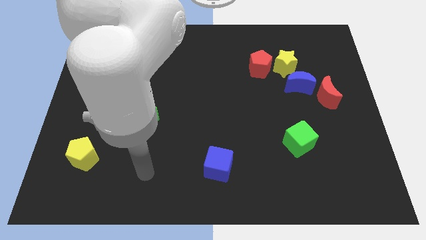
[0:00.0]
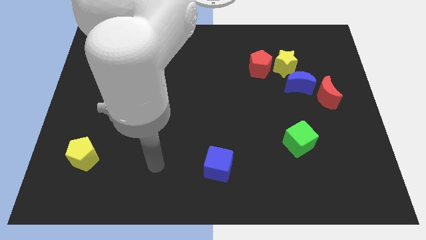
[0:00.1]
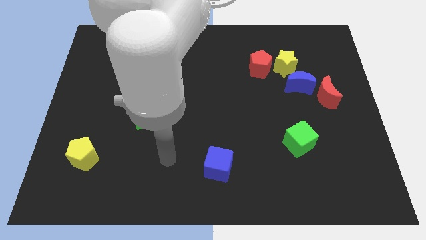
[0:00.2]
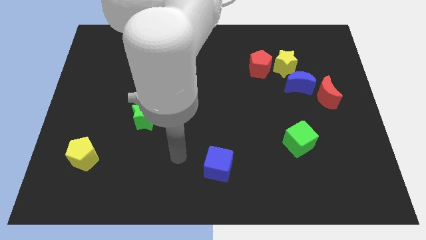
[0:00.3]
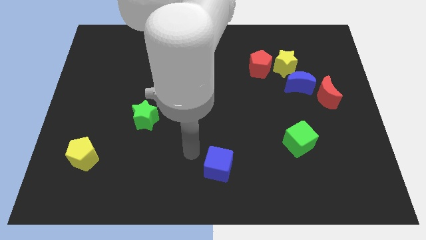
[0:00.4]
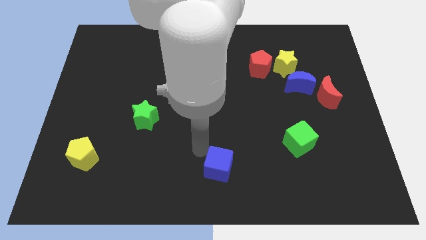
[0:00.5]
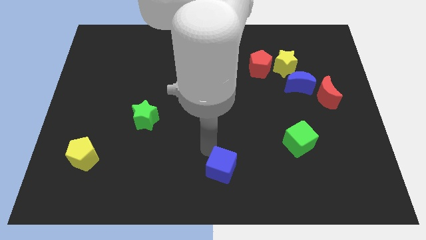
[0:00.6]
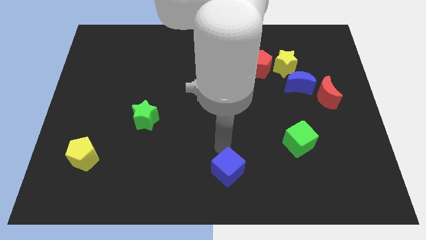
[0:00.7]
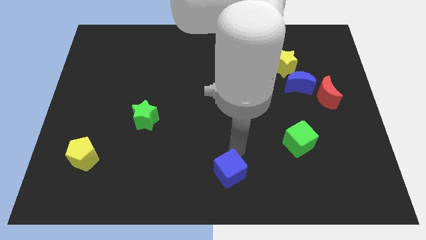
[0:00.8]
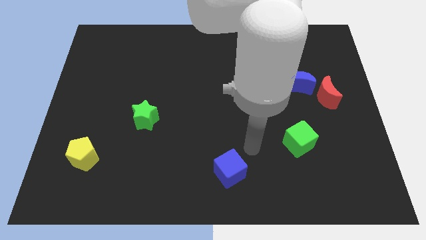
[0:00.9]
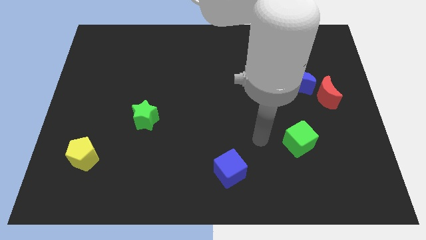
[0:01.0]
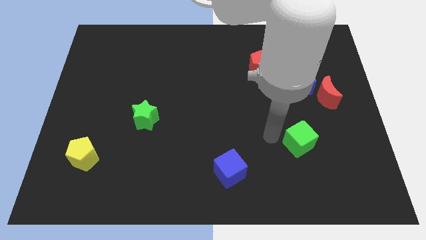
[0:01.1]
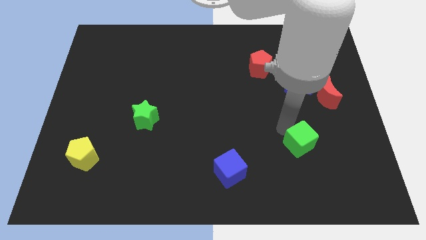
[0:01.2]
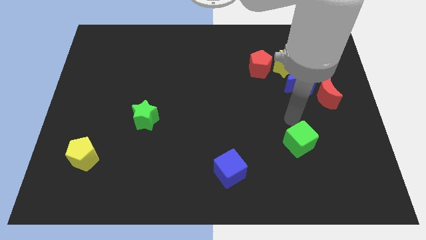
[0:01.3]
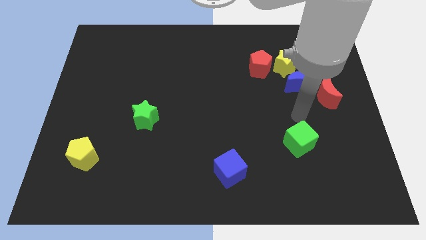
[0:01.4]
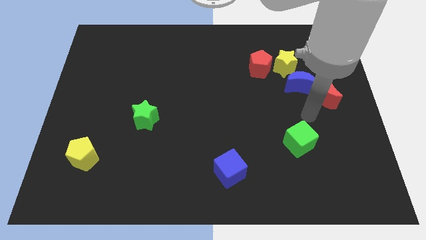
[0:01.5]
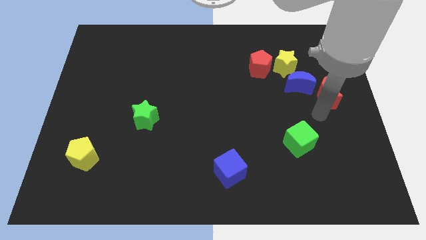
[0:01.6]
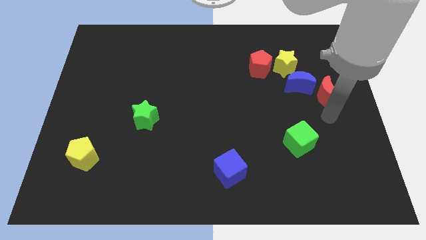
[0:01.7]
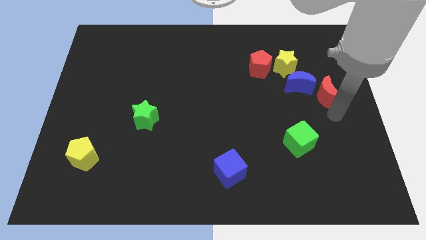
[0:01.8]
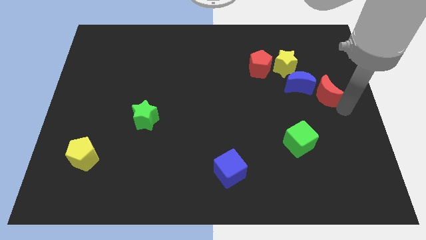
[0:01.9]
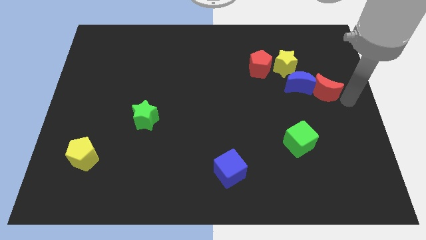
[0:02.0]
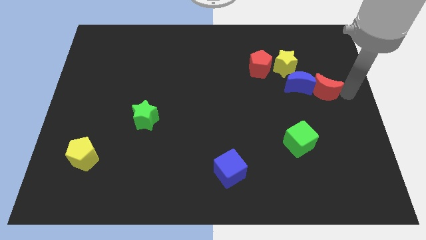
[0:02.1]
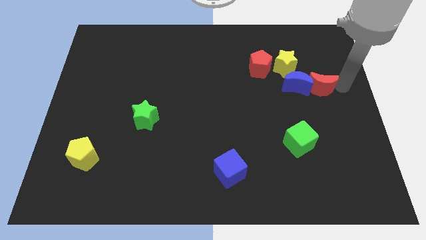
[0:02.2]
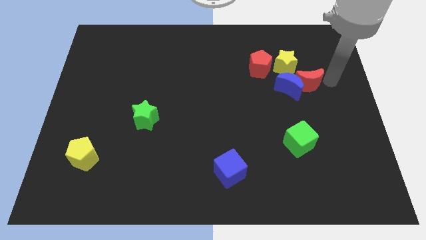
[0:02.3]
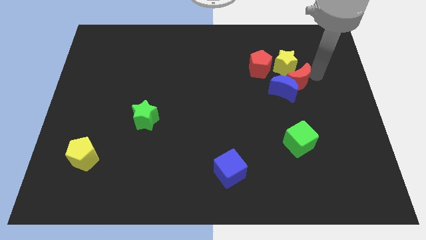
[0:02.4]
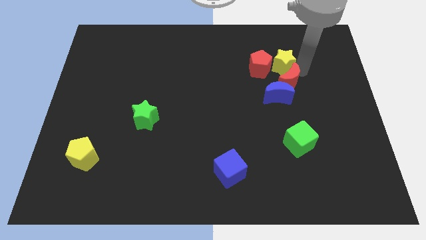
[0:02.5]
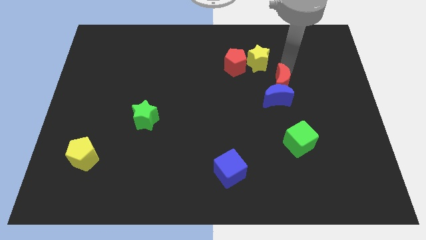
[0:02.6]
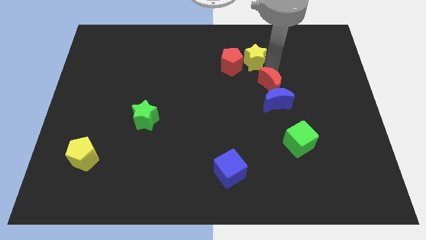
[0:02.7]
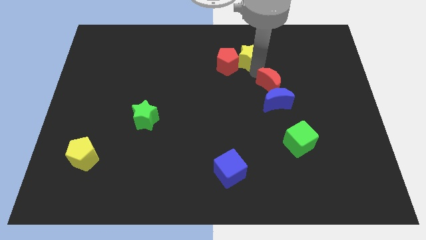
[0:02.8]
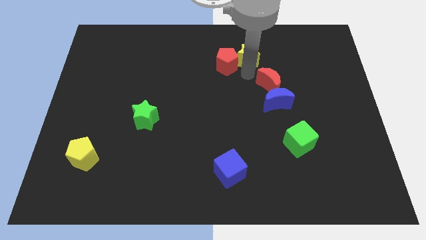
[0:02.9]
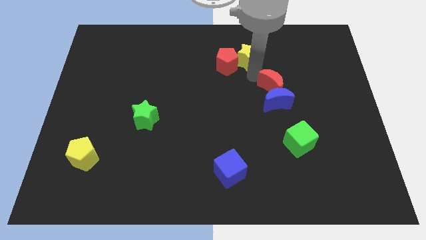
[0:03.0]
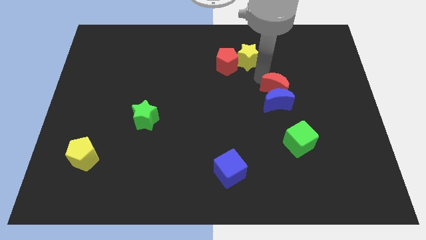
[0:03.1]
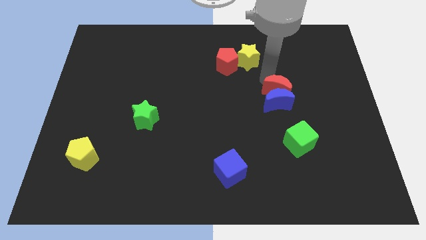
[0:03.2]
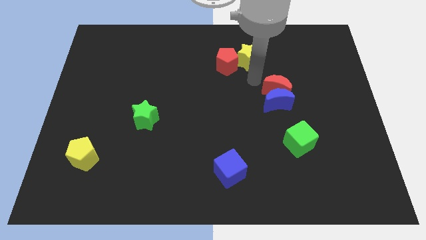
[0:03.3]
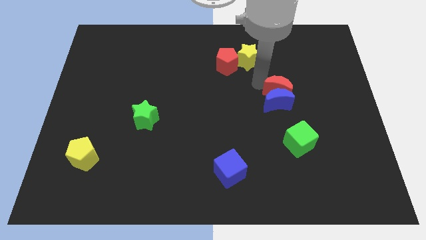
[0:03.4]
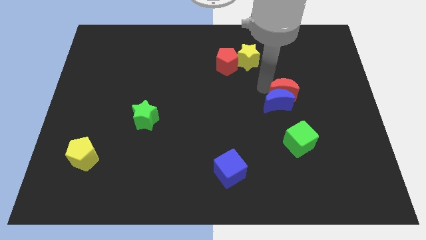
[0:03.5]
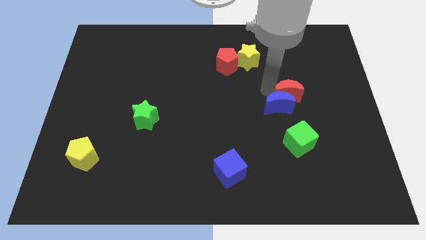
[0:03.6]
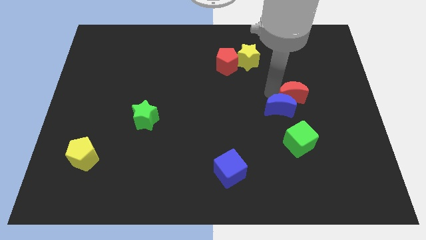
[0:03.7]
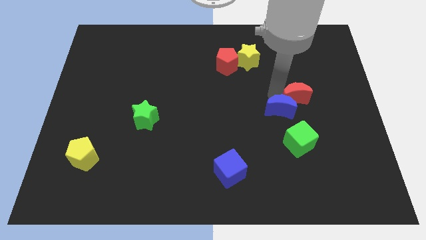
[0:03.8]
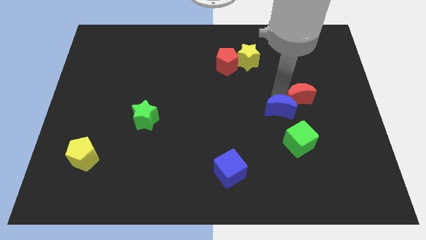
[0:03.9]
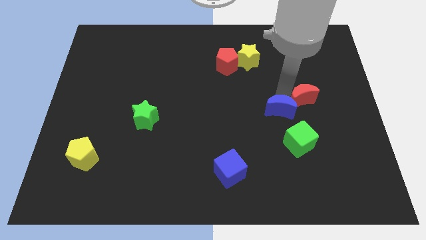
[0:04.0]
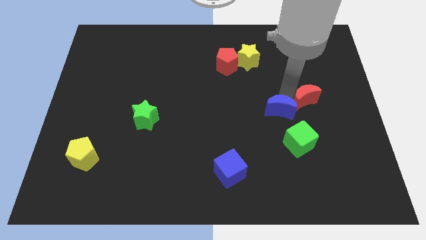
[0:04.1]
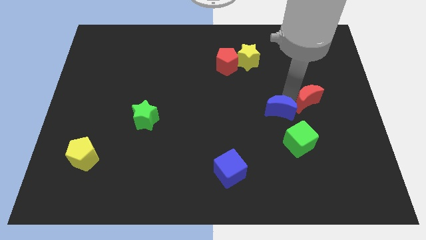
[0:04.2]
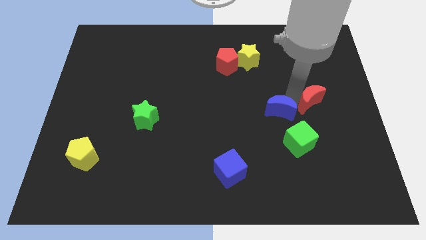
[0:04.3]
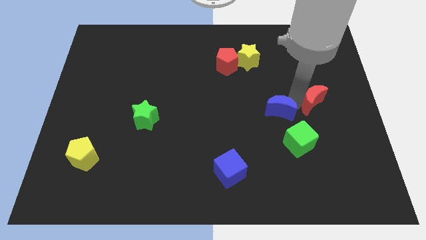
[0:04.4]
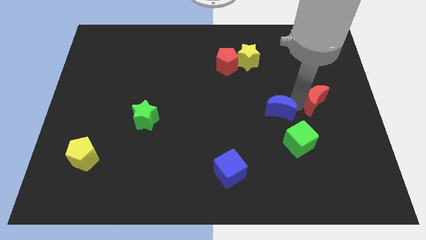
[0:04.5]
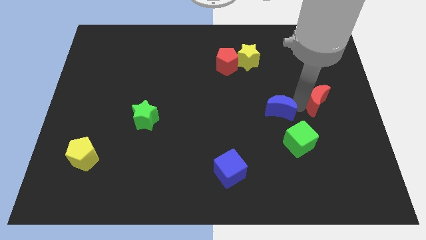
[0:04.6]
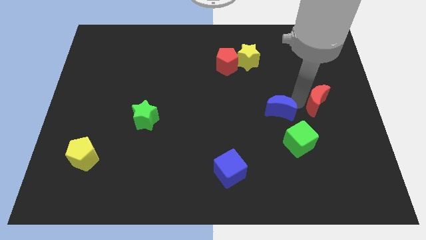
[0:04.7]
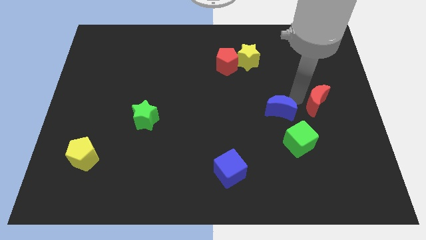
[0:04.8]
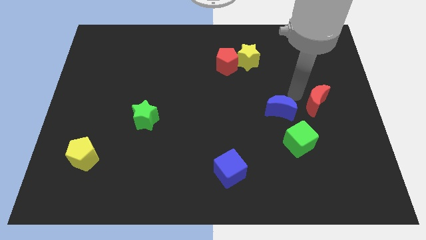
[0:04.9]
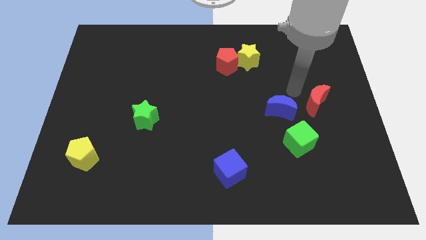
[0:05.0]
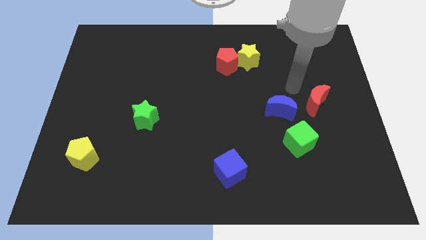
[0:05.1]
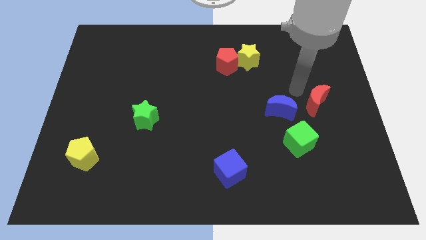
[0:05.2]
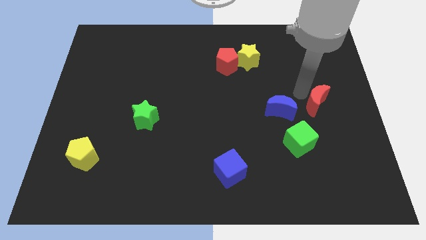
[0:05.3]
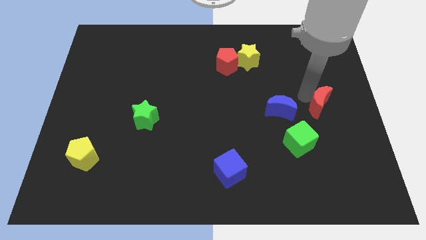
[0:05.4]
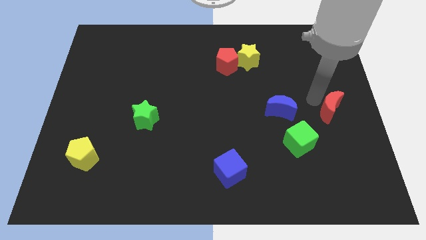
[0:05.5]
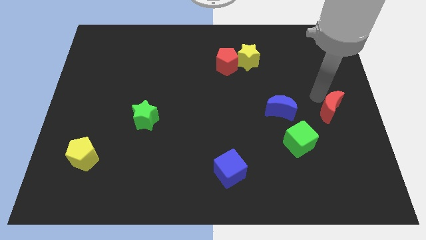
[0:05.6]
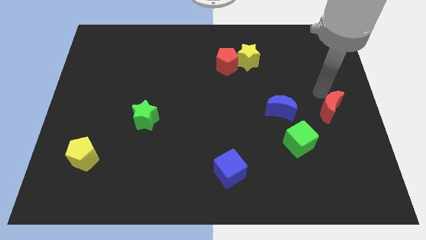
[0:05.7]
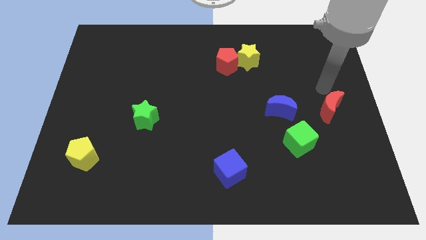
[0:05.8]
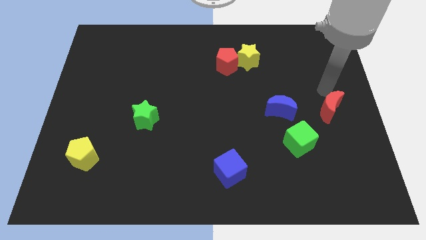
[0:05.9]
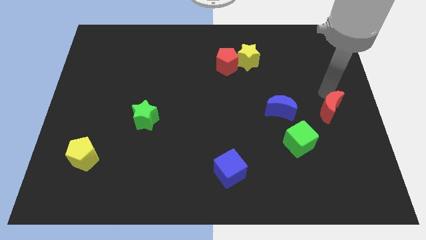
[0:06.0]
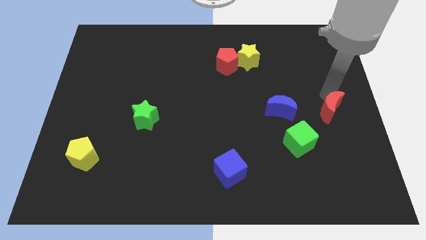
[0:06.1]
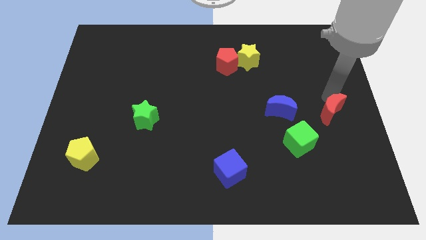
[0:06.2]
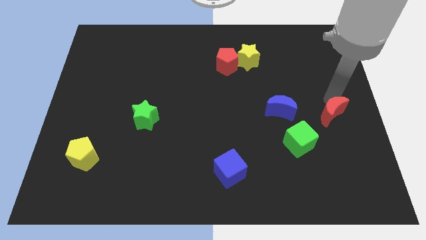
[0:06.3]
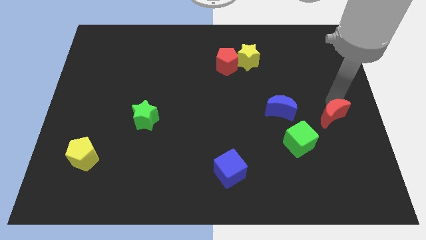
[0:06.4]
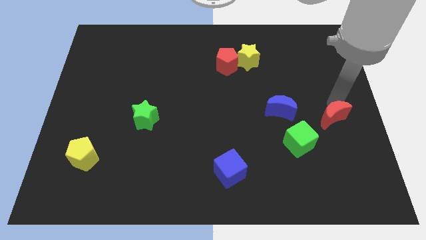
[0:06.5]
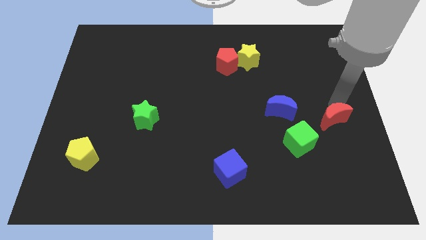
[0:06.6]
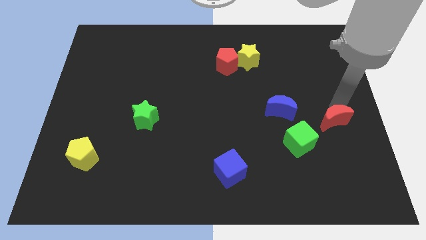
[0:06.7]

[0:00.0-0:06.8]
slide the red moon a little bit down

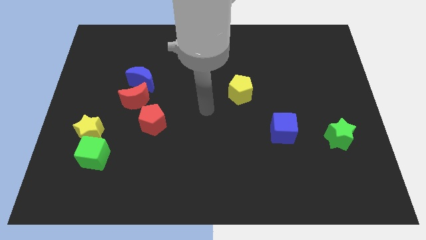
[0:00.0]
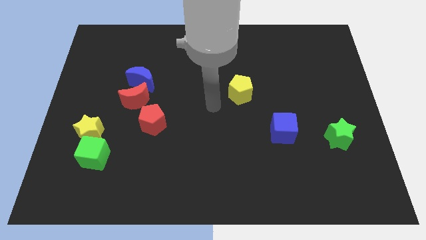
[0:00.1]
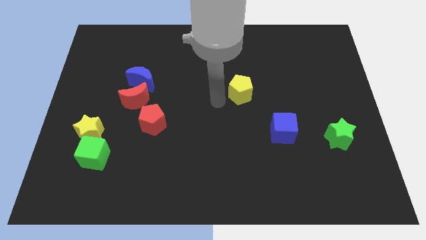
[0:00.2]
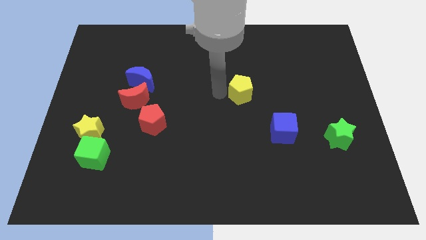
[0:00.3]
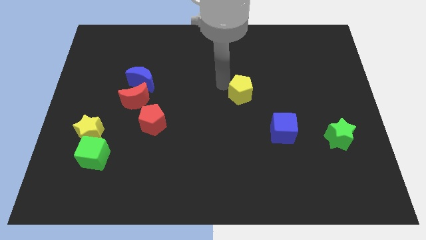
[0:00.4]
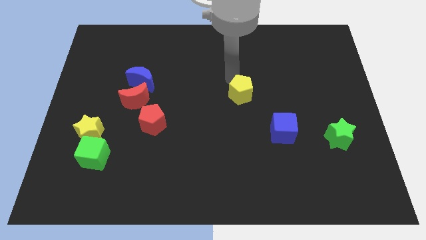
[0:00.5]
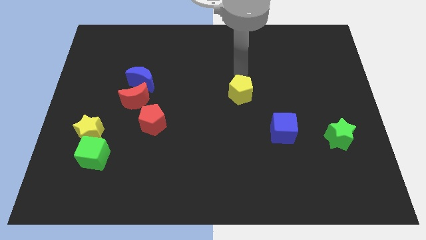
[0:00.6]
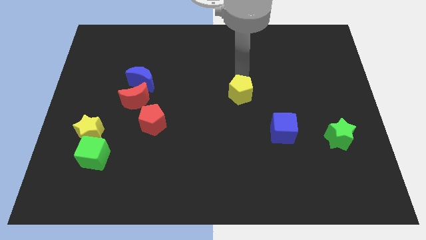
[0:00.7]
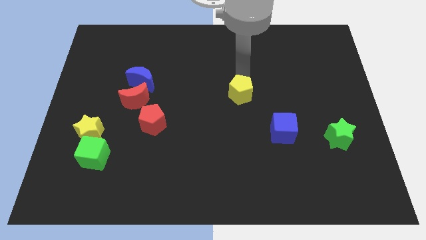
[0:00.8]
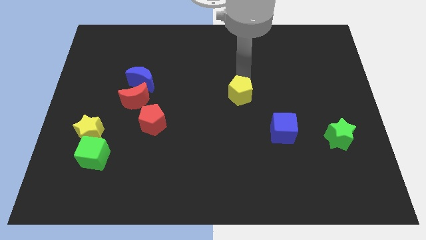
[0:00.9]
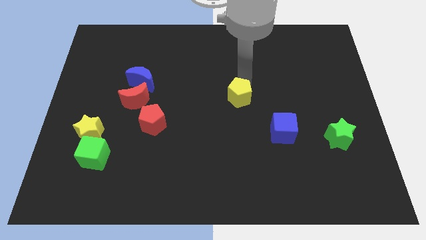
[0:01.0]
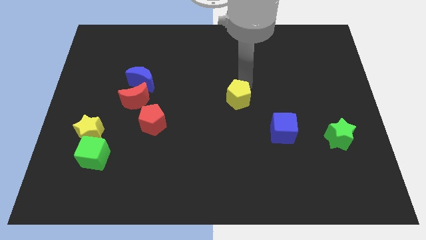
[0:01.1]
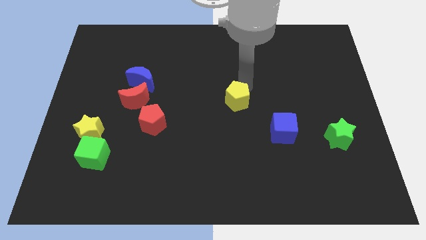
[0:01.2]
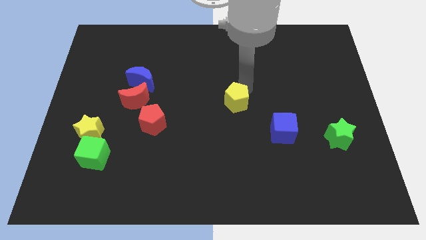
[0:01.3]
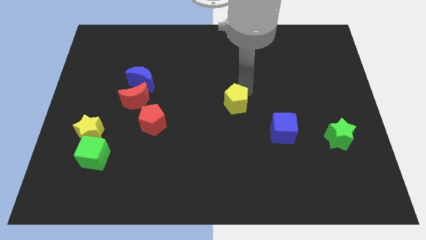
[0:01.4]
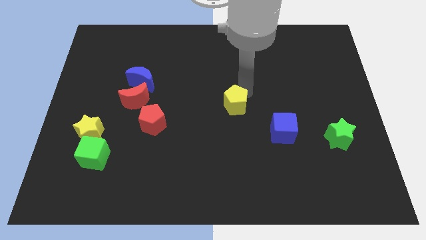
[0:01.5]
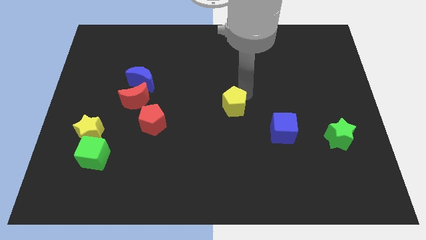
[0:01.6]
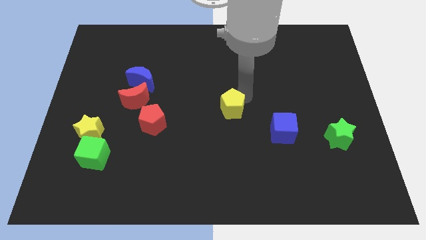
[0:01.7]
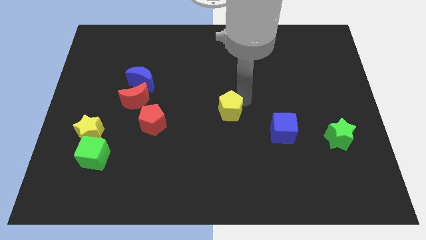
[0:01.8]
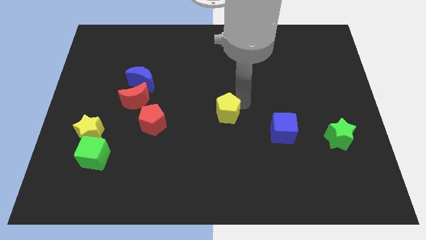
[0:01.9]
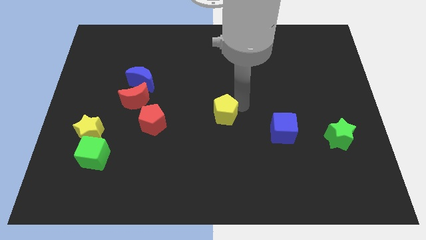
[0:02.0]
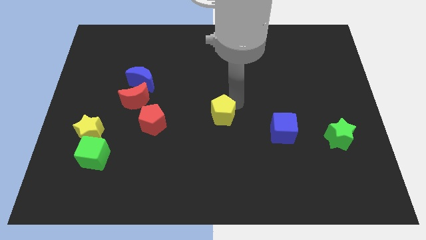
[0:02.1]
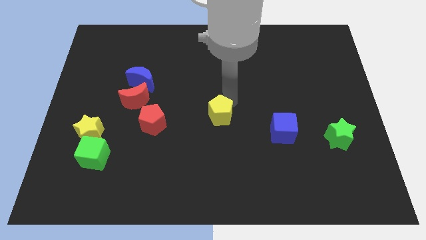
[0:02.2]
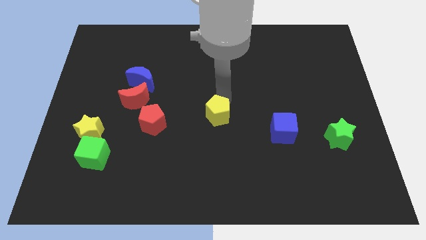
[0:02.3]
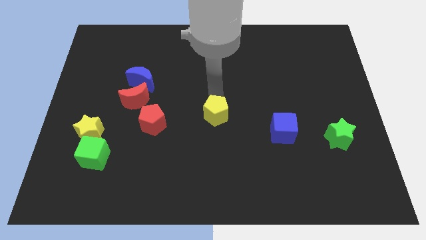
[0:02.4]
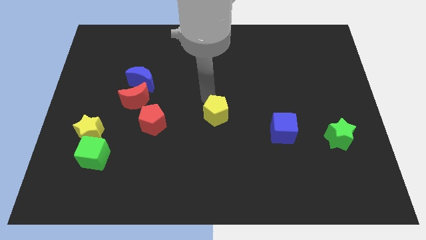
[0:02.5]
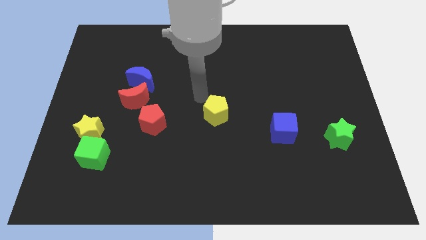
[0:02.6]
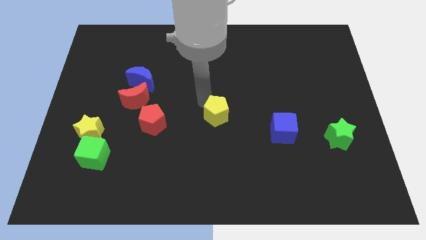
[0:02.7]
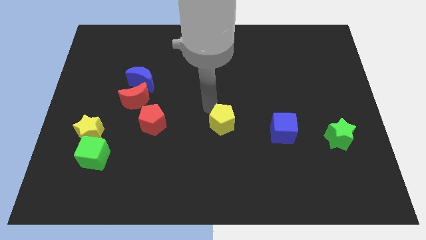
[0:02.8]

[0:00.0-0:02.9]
push the yellow pentagon down a little bit
